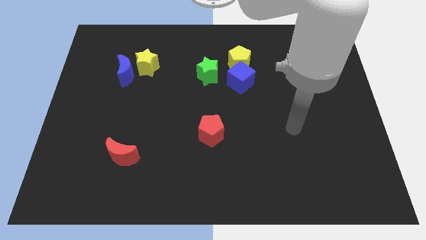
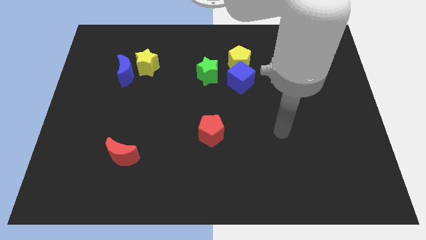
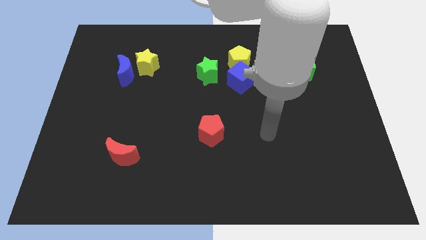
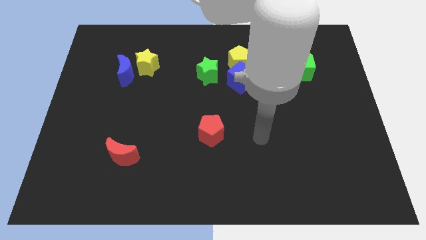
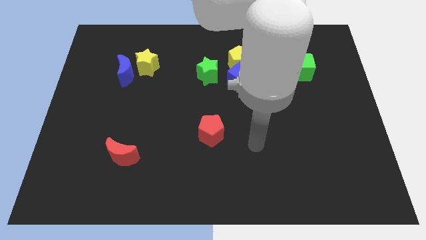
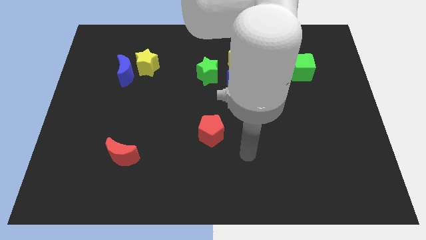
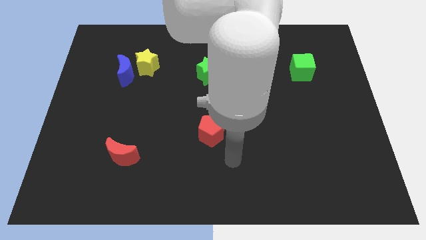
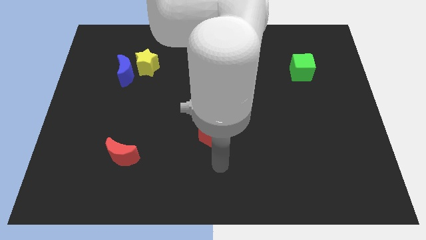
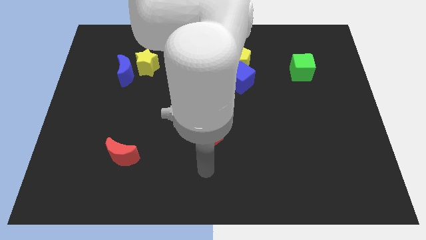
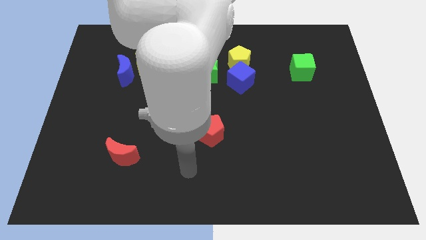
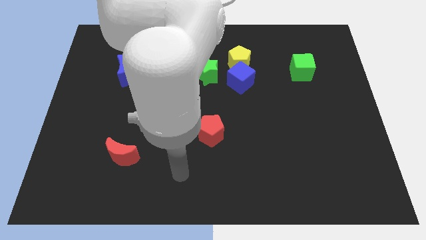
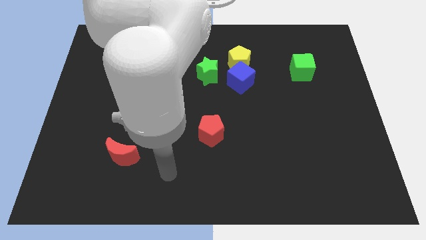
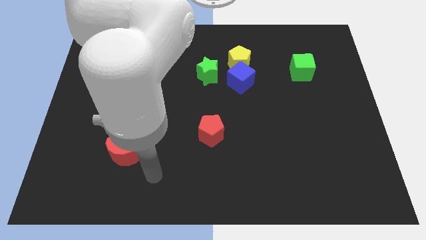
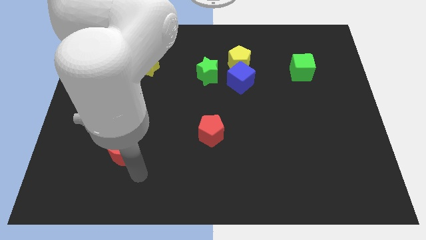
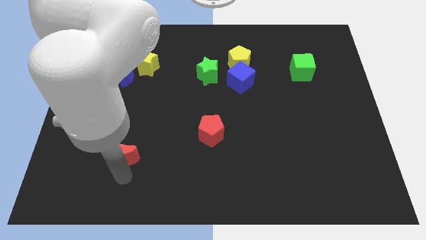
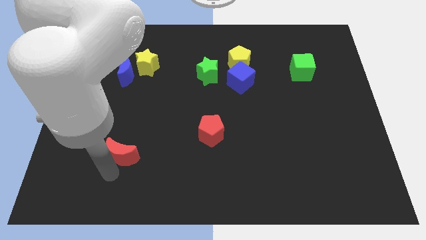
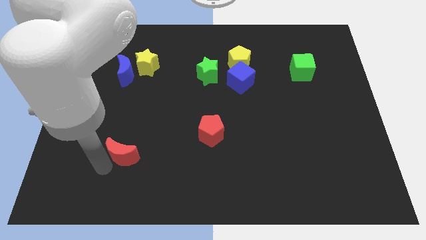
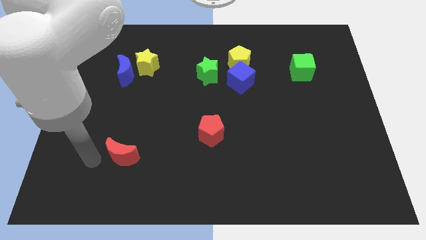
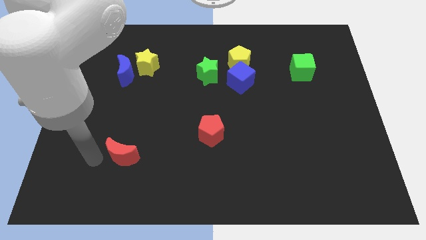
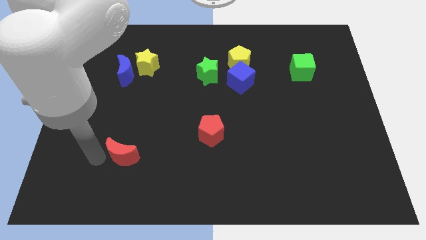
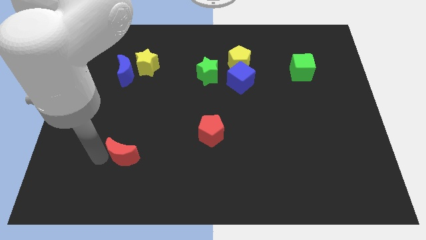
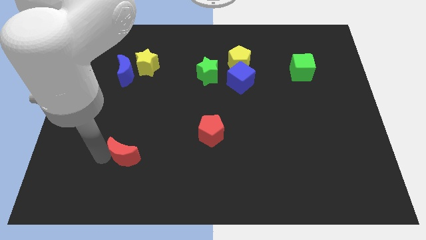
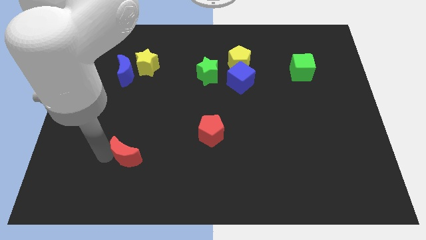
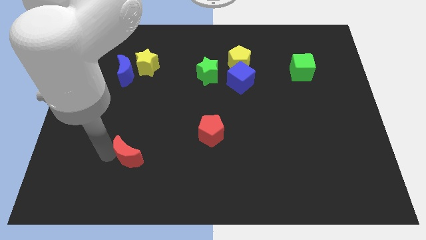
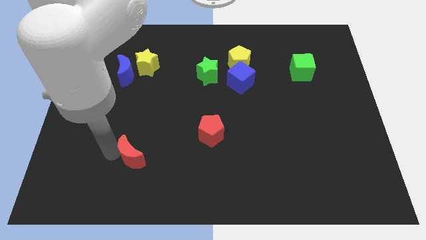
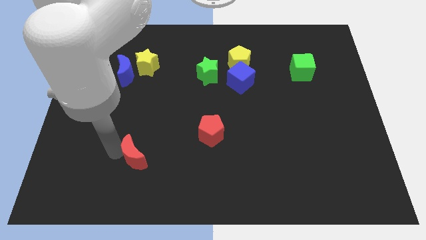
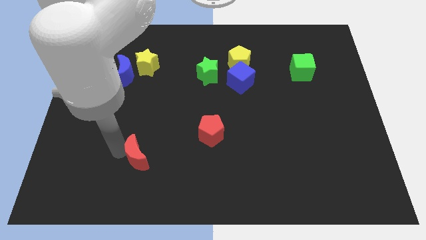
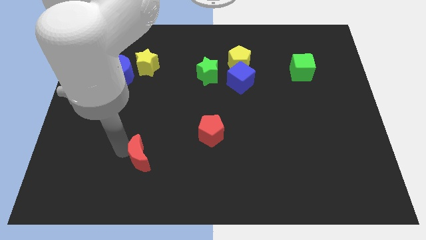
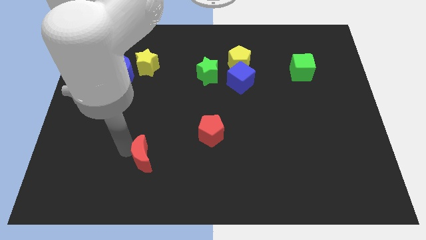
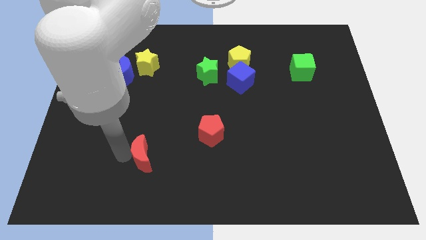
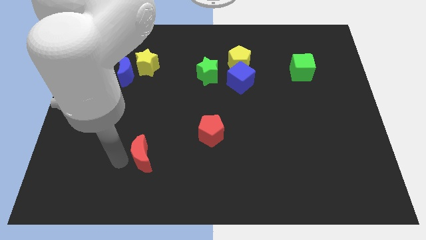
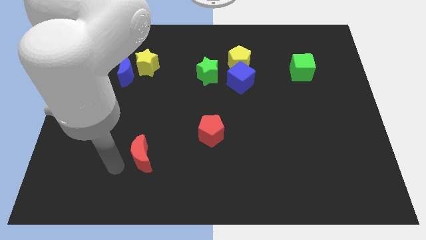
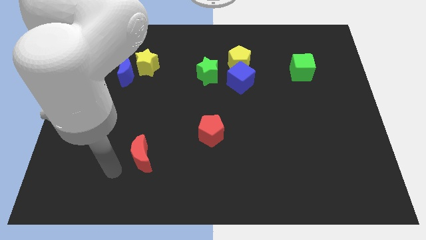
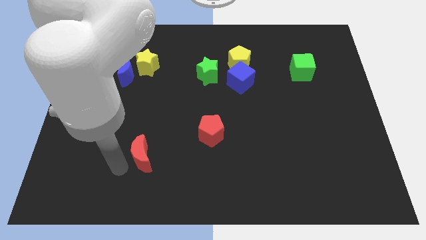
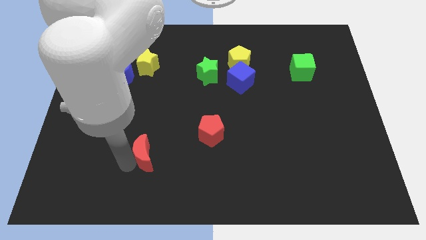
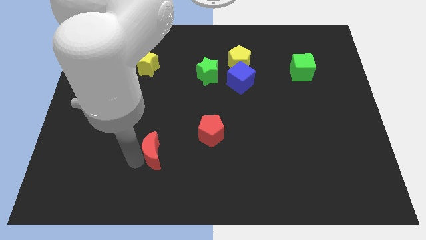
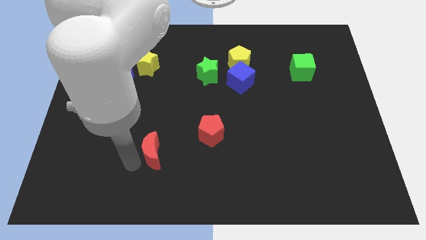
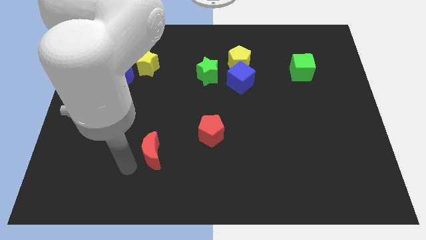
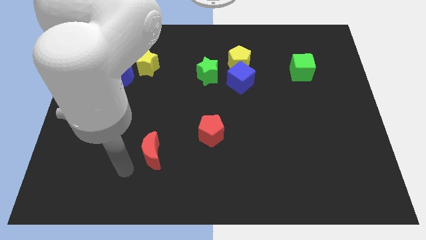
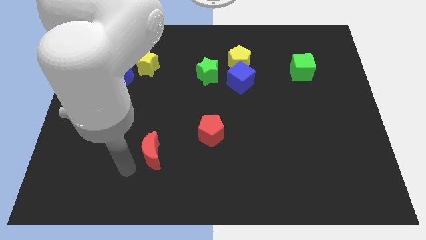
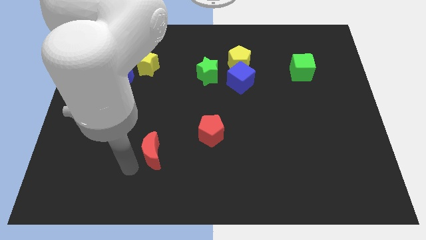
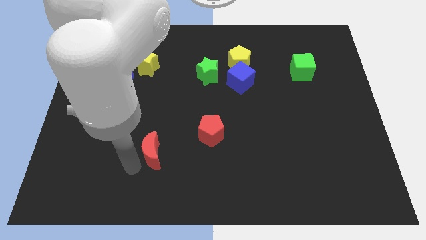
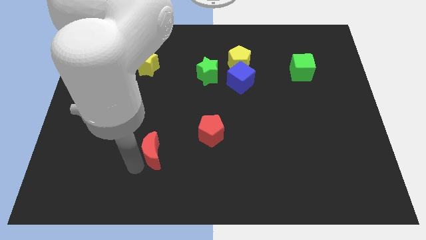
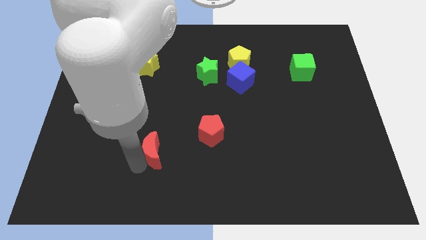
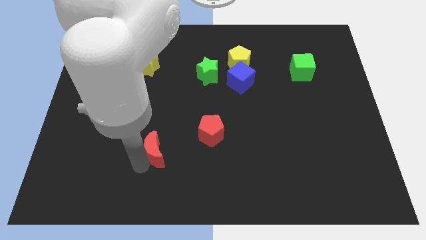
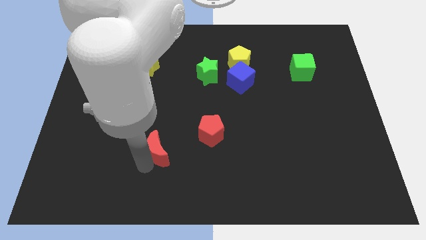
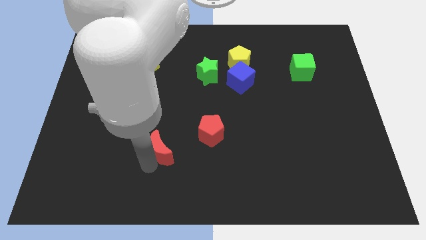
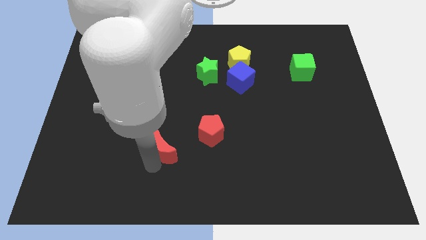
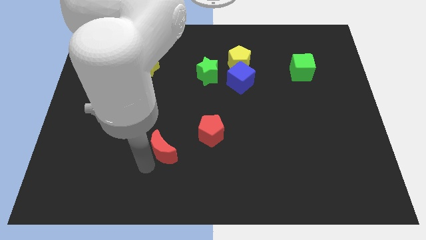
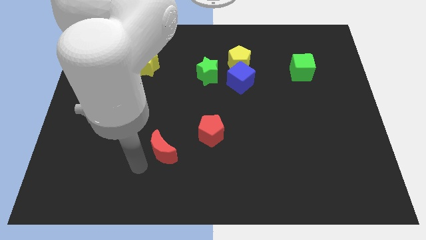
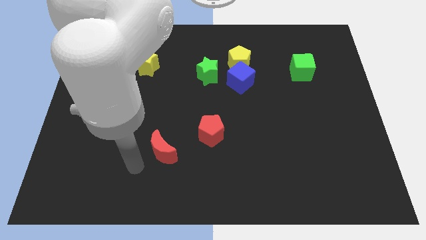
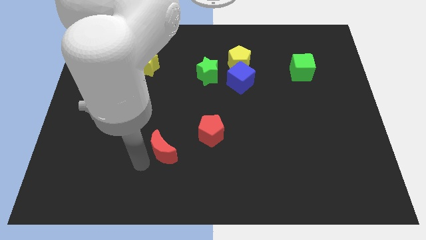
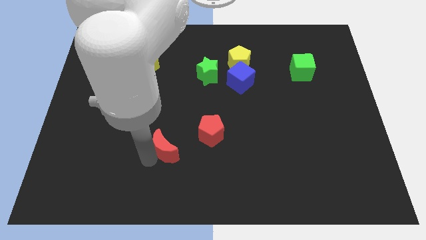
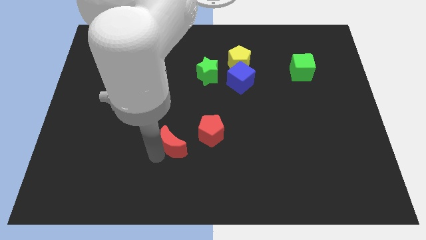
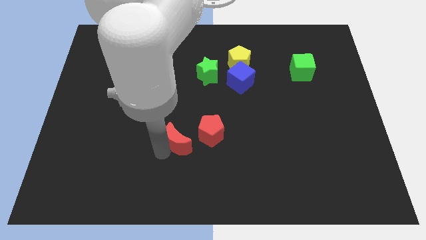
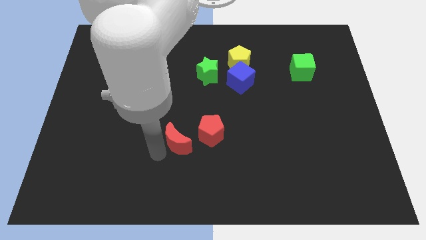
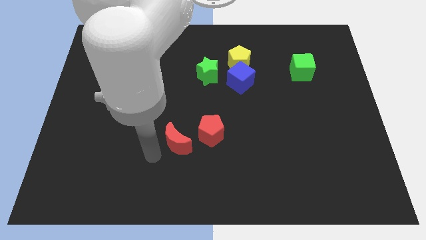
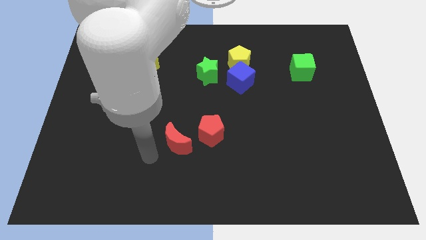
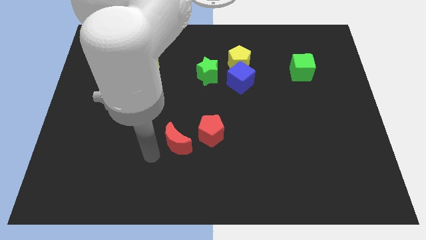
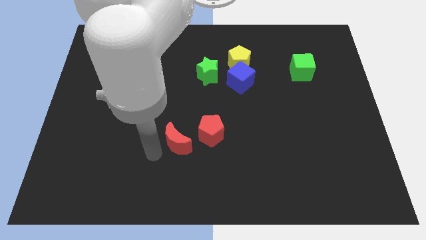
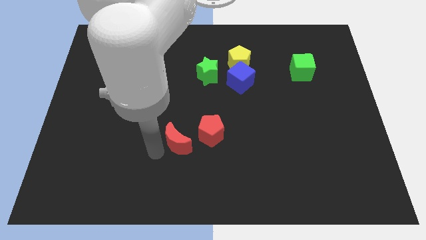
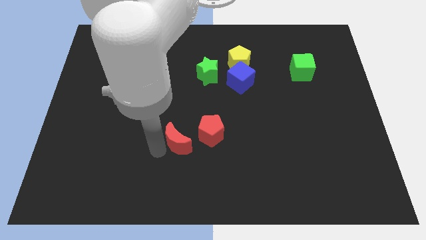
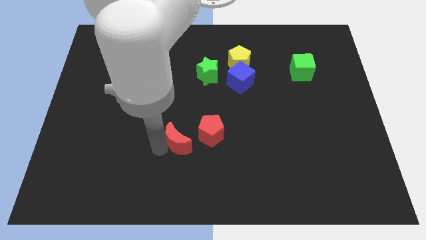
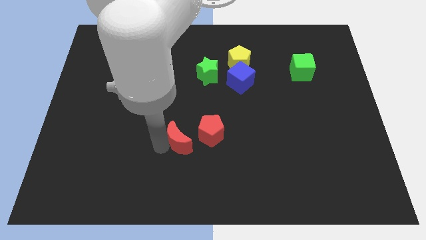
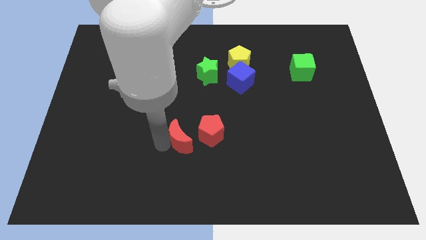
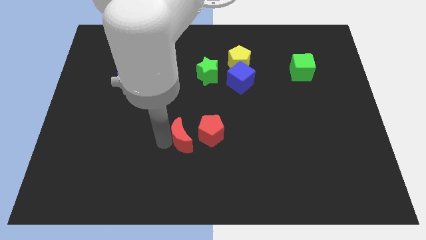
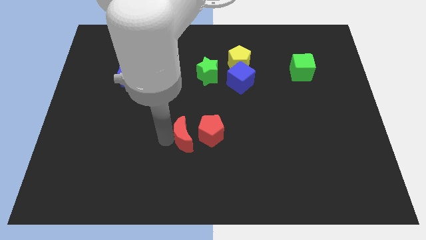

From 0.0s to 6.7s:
move the red moon next to the red pentagon

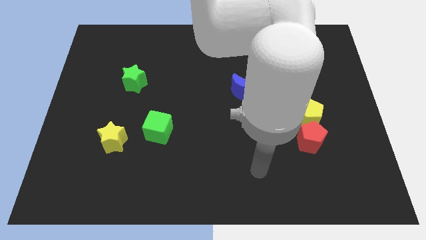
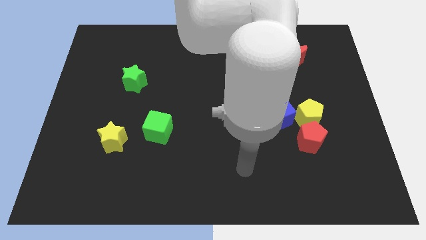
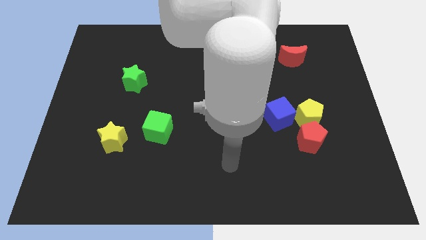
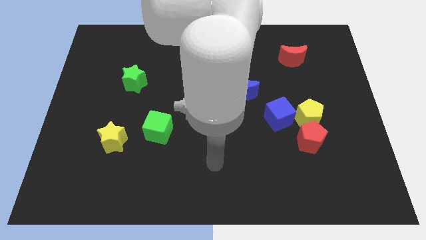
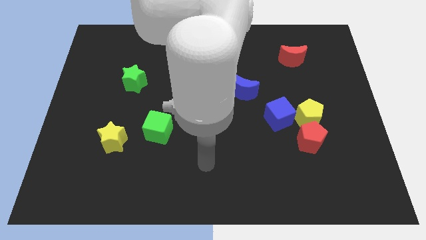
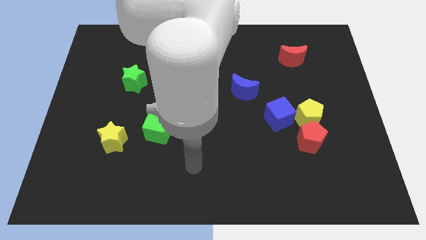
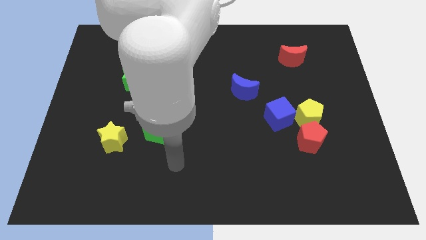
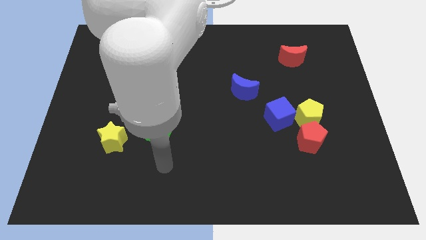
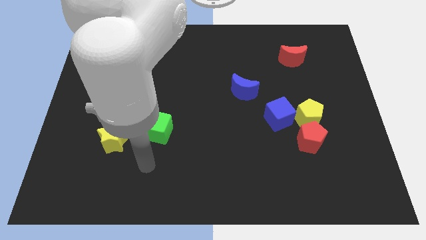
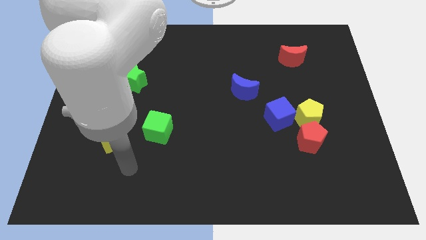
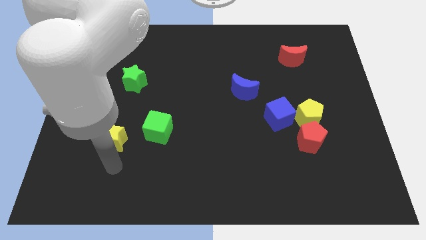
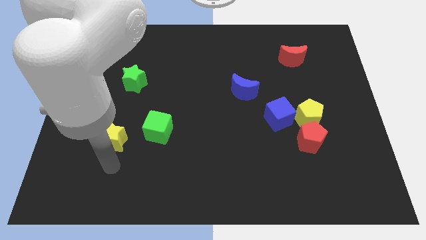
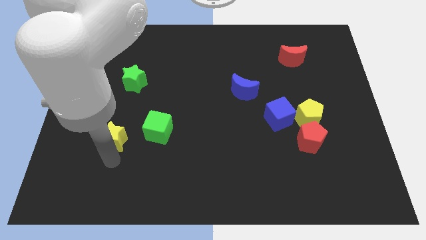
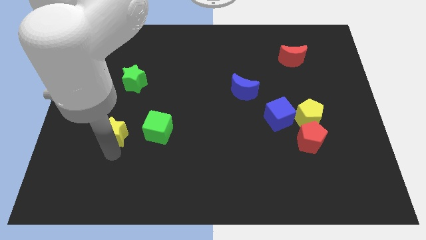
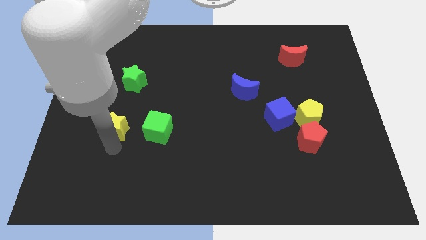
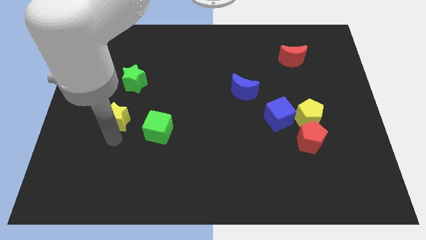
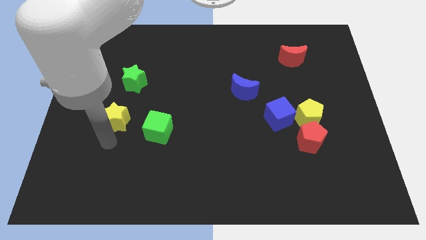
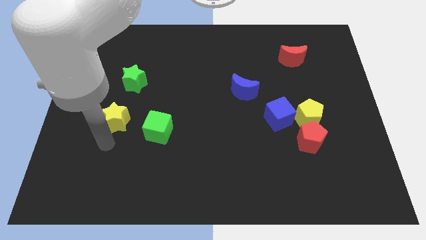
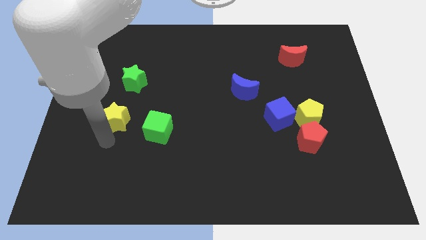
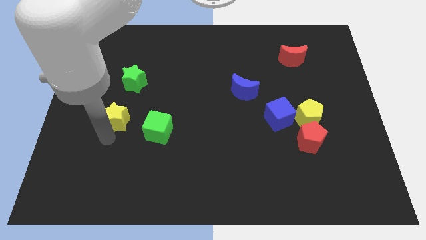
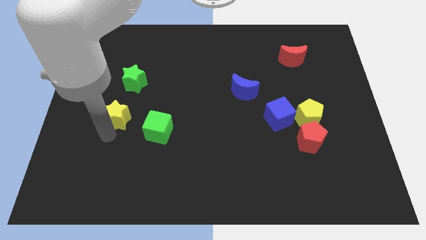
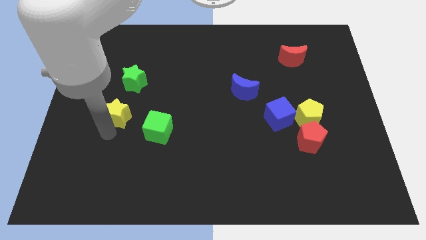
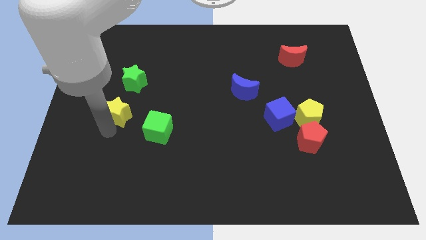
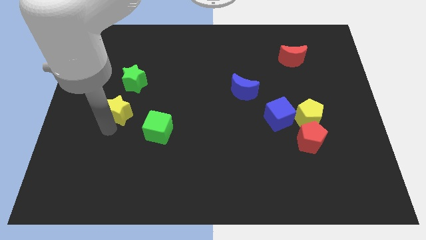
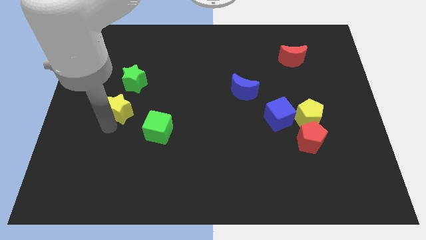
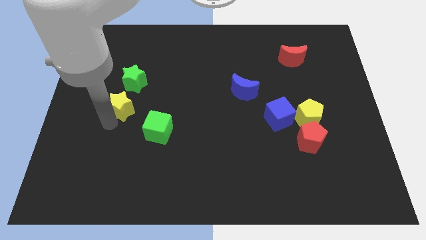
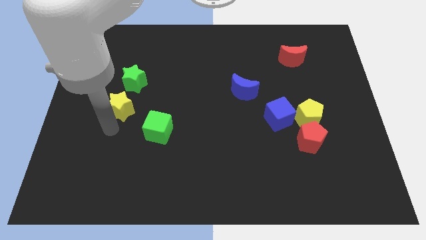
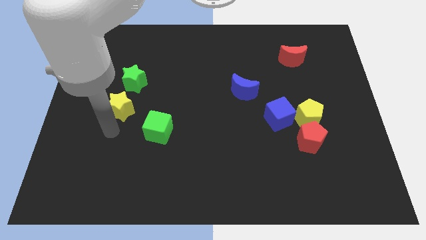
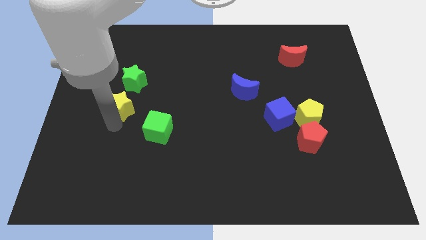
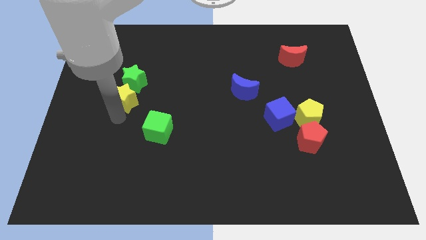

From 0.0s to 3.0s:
move the yellow star close to the green star
